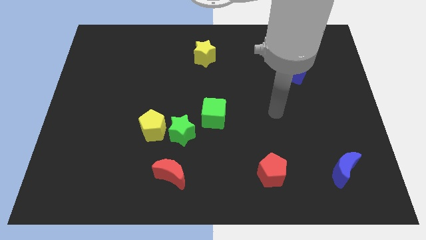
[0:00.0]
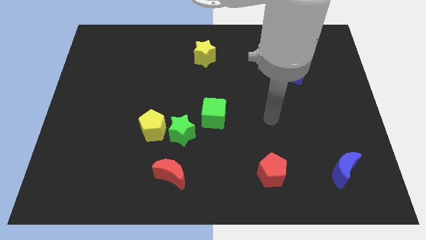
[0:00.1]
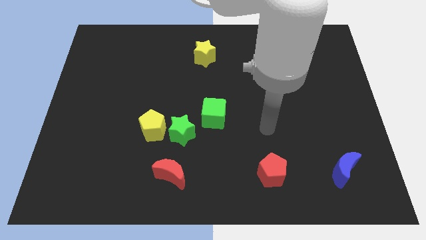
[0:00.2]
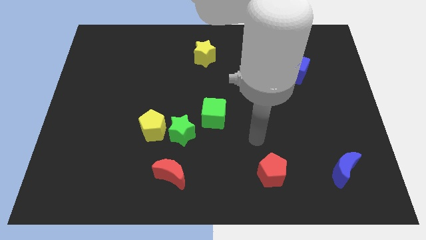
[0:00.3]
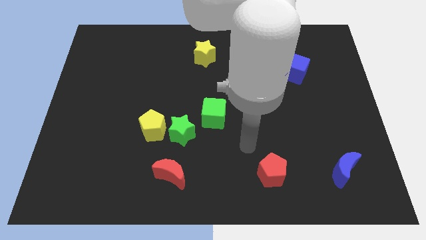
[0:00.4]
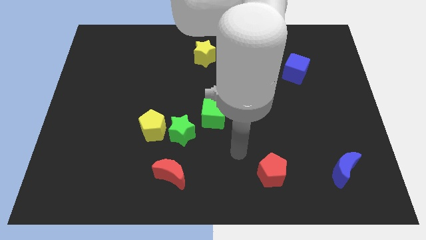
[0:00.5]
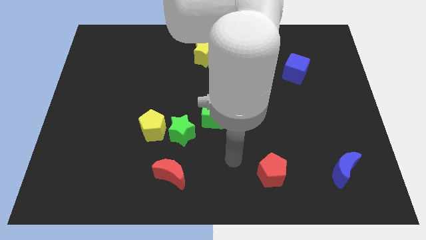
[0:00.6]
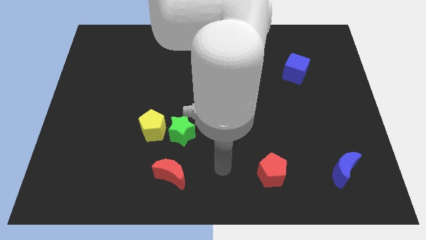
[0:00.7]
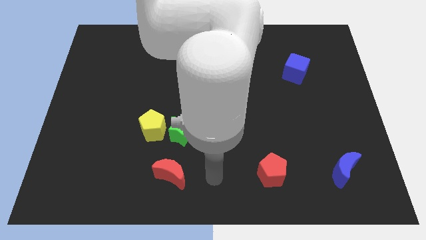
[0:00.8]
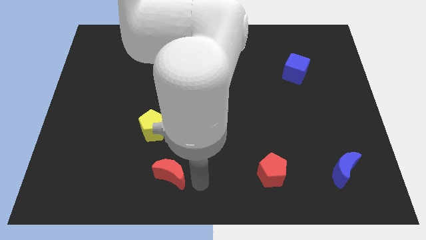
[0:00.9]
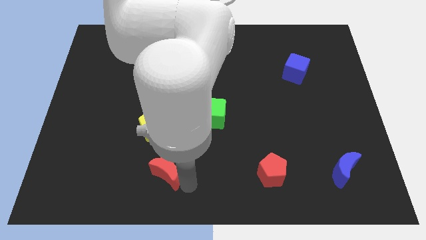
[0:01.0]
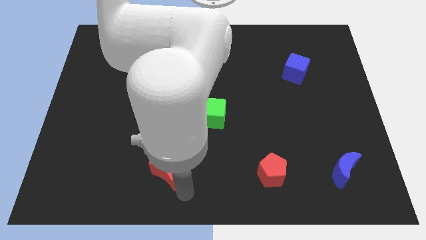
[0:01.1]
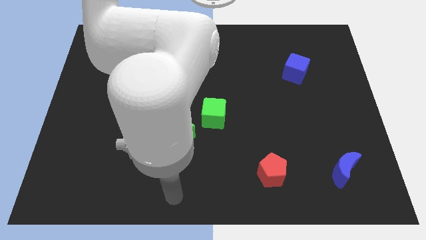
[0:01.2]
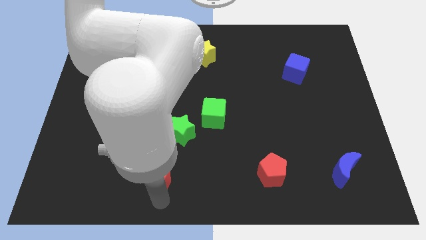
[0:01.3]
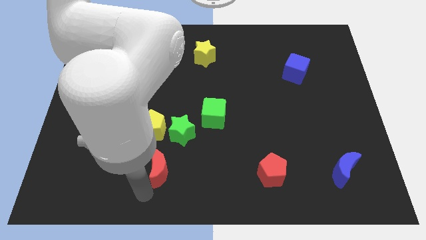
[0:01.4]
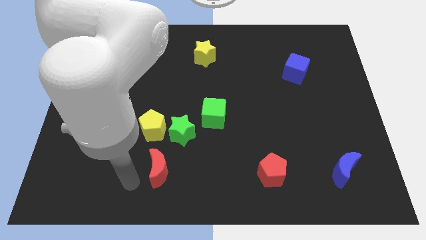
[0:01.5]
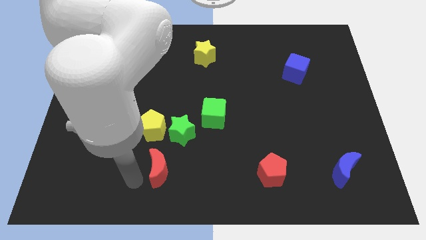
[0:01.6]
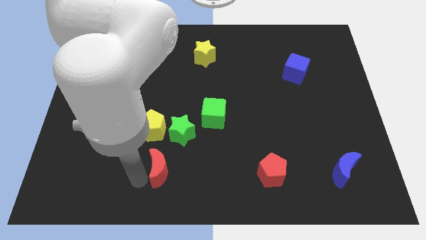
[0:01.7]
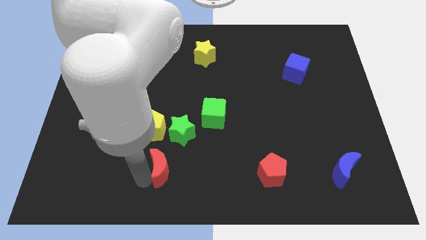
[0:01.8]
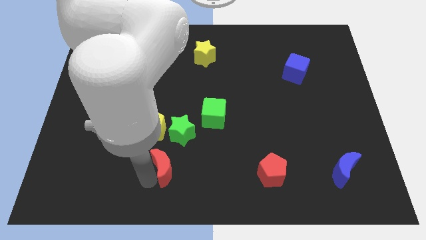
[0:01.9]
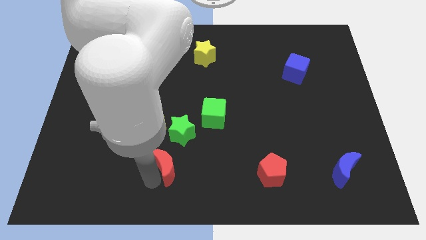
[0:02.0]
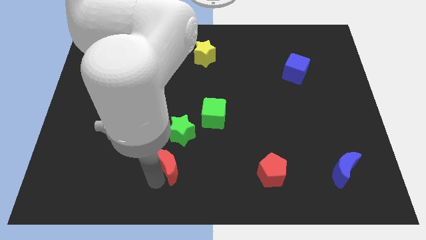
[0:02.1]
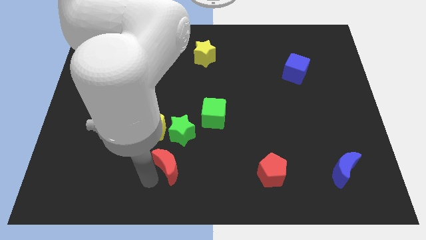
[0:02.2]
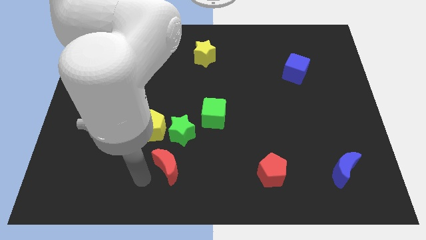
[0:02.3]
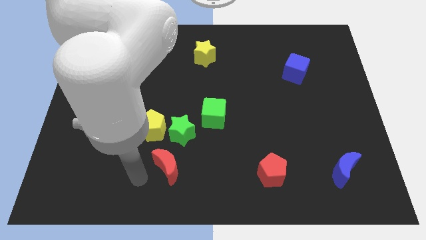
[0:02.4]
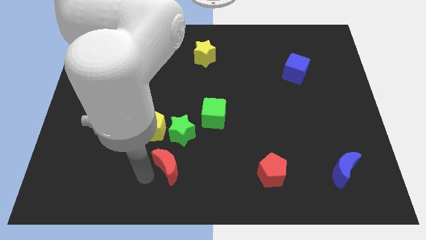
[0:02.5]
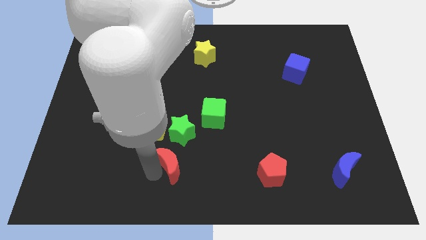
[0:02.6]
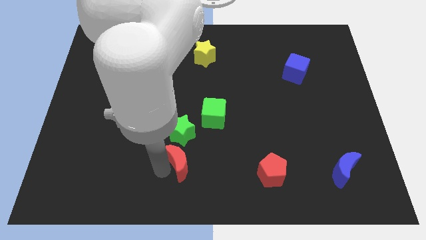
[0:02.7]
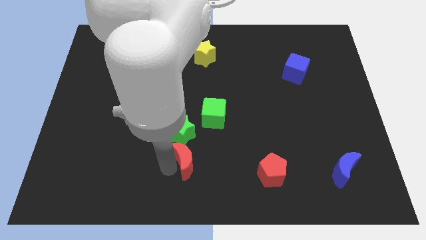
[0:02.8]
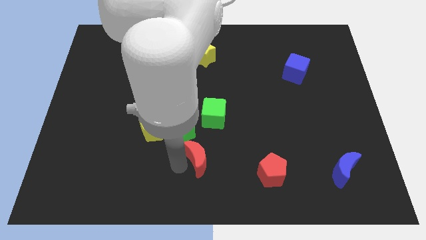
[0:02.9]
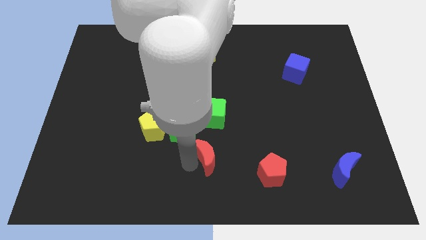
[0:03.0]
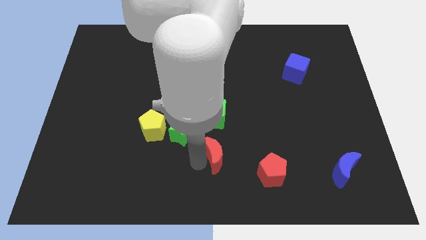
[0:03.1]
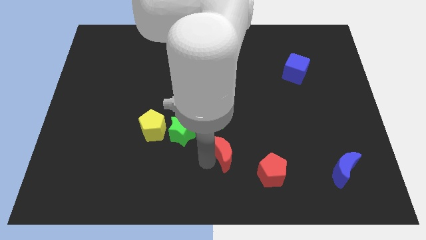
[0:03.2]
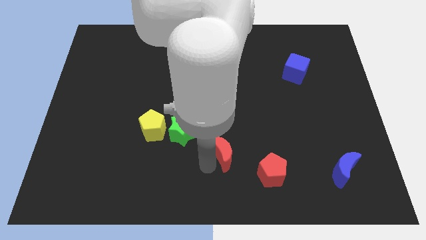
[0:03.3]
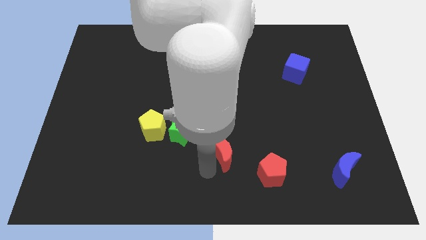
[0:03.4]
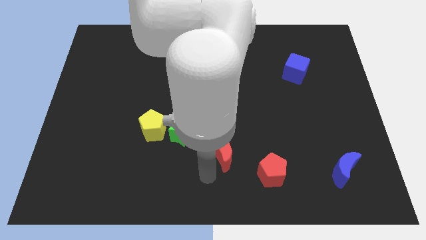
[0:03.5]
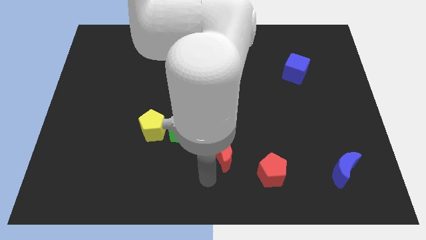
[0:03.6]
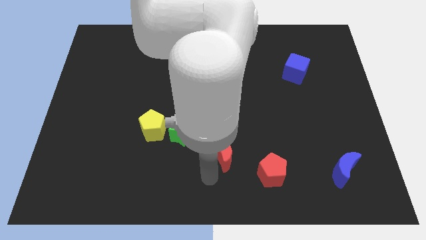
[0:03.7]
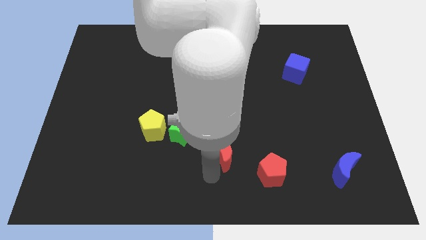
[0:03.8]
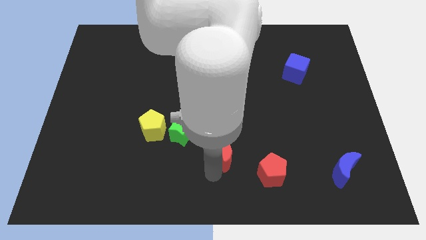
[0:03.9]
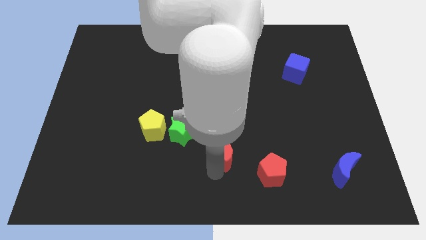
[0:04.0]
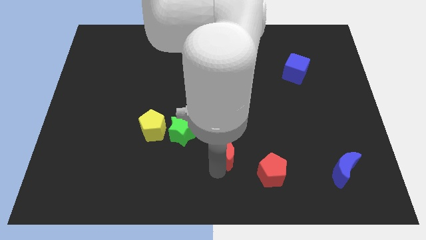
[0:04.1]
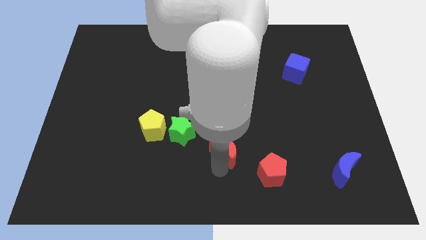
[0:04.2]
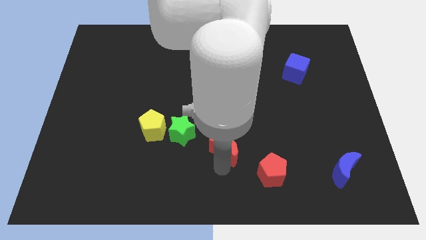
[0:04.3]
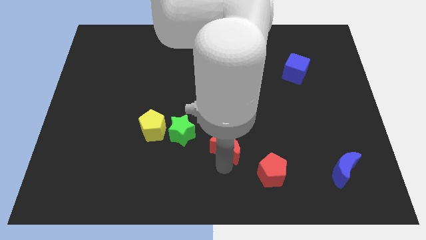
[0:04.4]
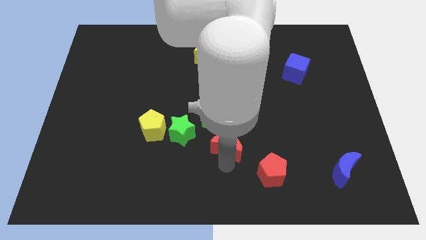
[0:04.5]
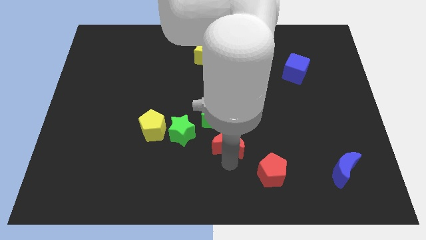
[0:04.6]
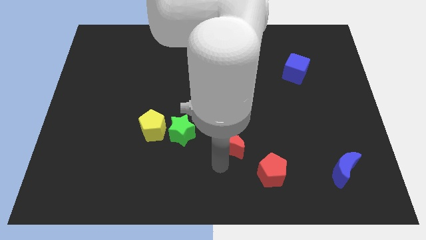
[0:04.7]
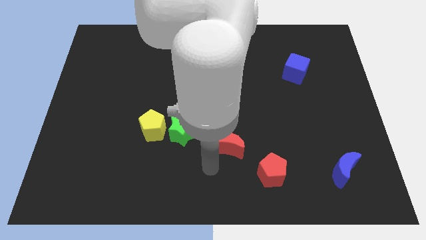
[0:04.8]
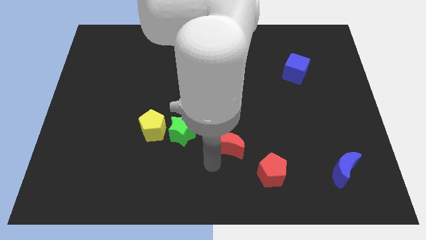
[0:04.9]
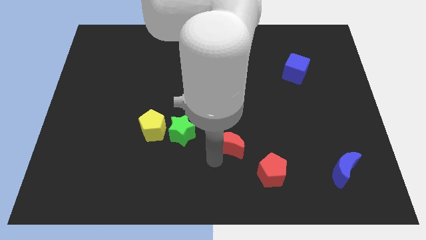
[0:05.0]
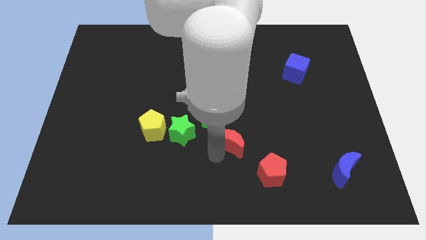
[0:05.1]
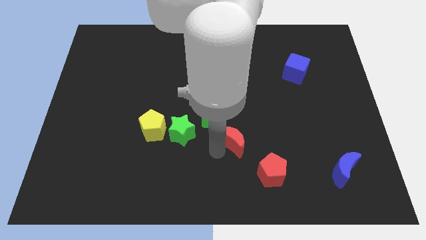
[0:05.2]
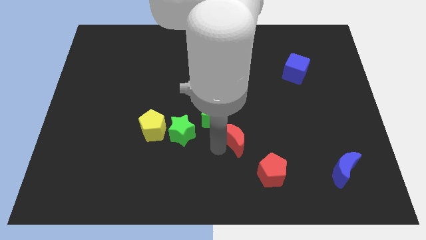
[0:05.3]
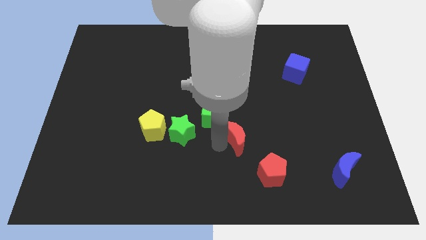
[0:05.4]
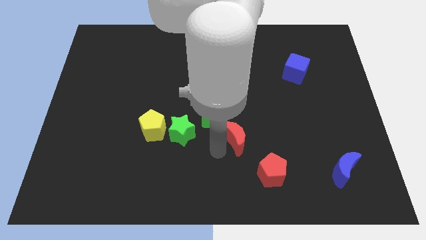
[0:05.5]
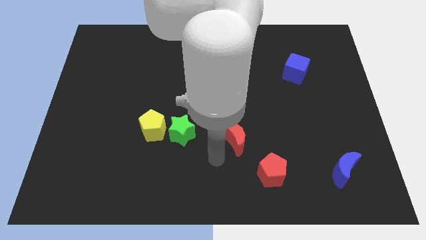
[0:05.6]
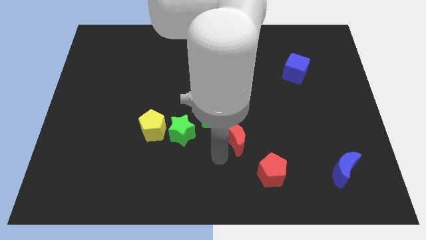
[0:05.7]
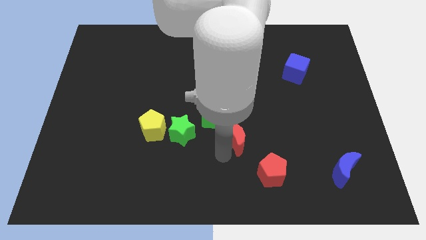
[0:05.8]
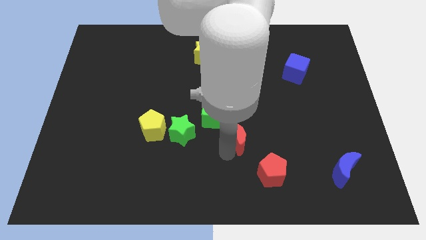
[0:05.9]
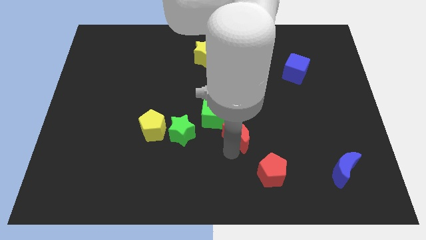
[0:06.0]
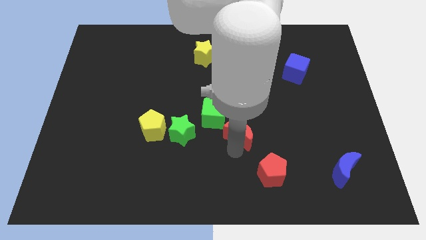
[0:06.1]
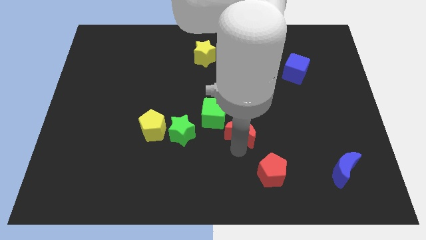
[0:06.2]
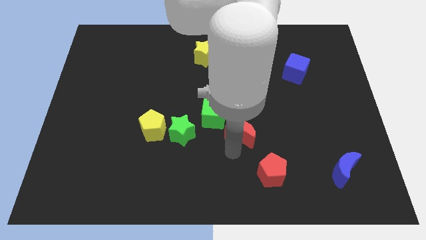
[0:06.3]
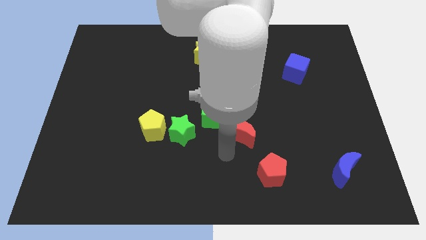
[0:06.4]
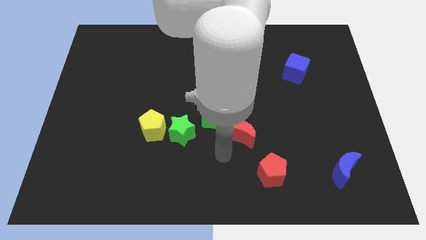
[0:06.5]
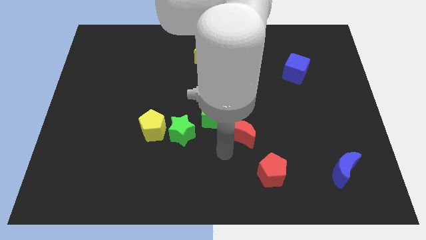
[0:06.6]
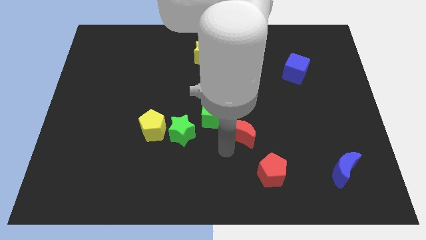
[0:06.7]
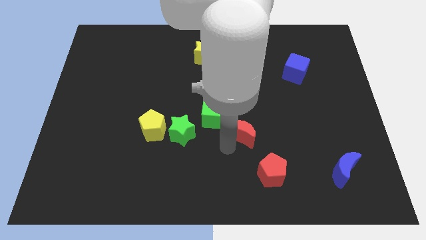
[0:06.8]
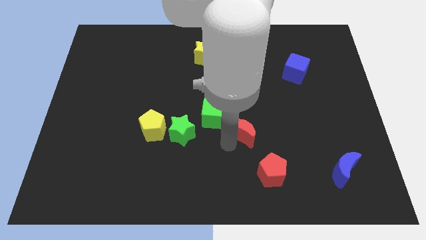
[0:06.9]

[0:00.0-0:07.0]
slide the red moon to the right side of the green cube
